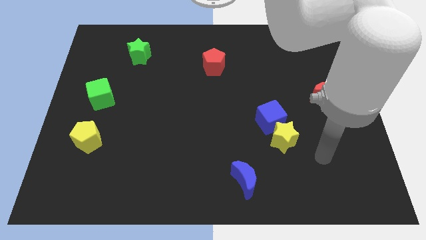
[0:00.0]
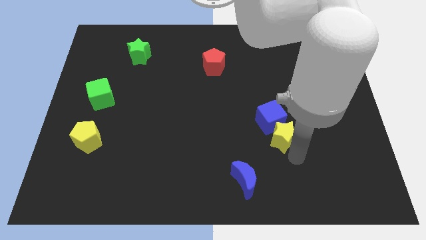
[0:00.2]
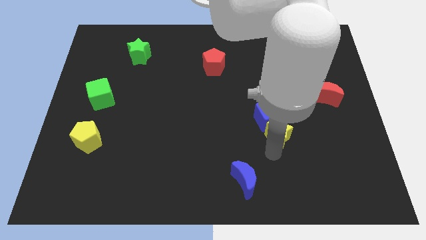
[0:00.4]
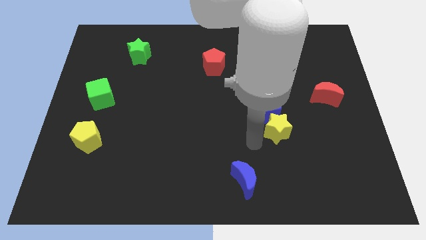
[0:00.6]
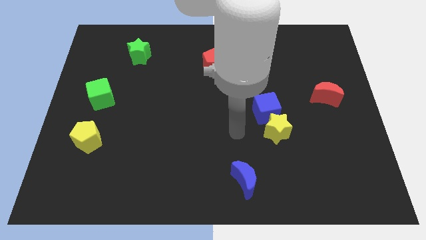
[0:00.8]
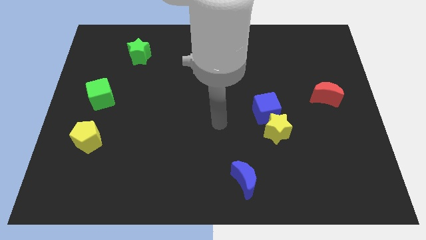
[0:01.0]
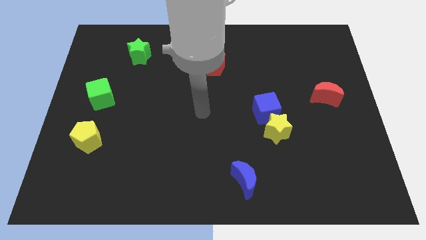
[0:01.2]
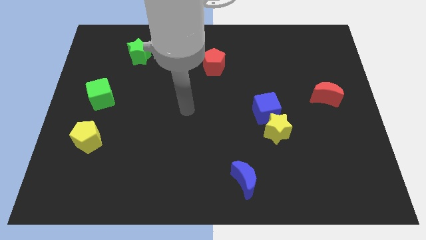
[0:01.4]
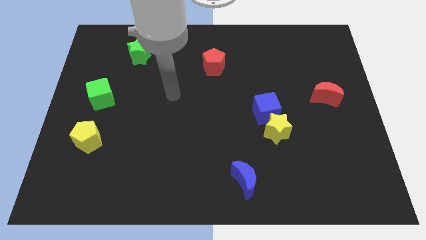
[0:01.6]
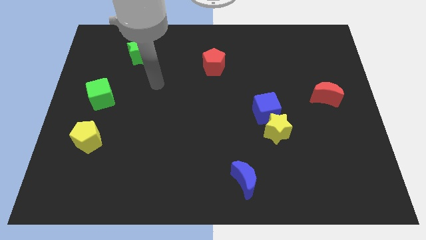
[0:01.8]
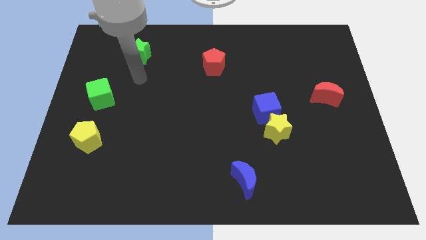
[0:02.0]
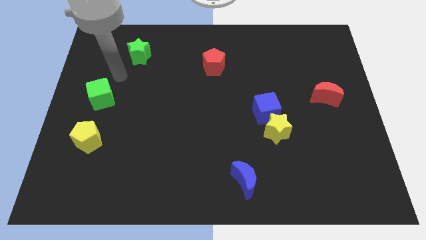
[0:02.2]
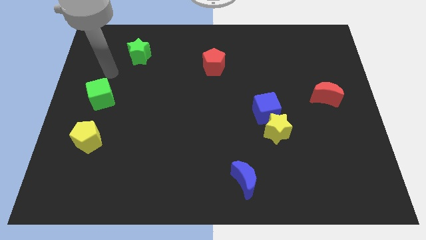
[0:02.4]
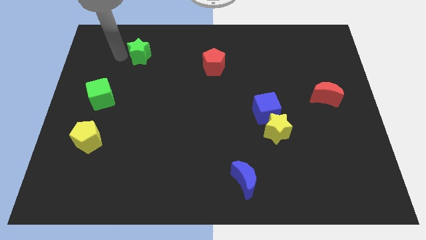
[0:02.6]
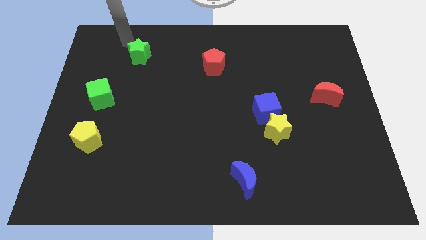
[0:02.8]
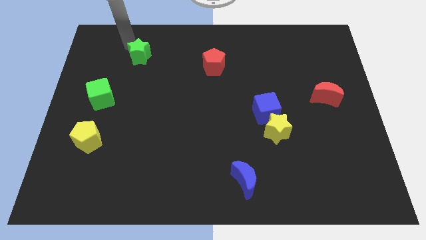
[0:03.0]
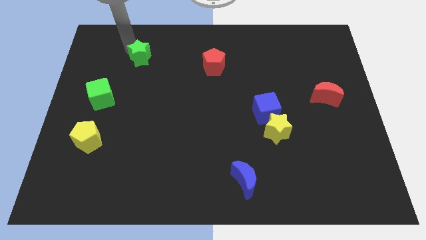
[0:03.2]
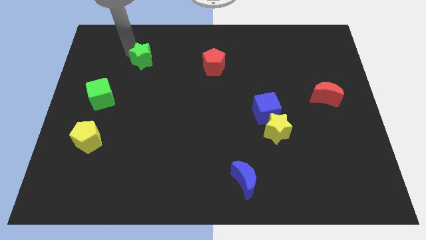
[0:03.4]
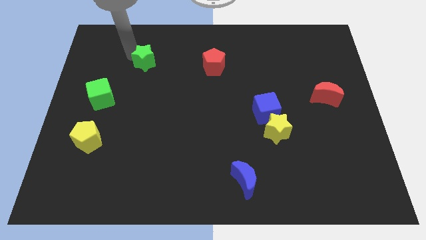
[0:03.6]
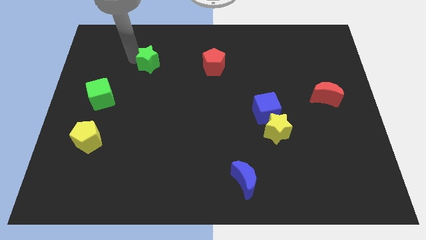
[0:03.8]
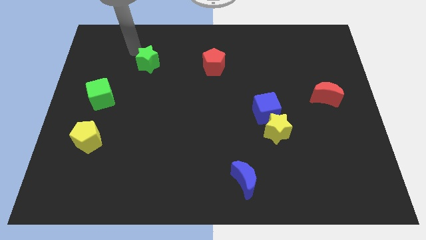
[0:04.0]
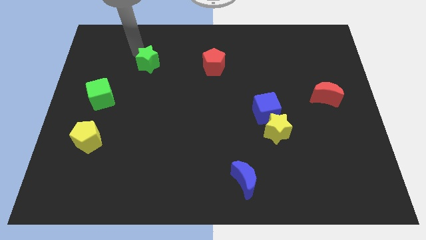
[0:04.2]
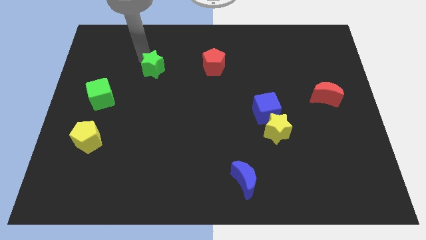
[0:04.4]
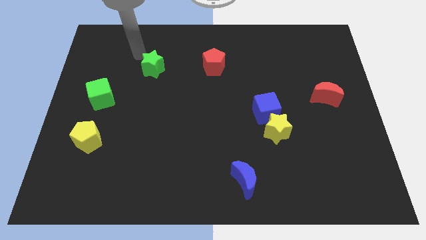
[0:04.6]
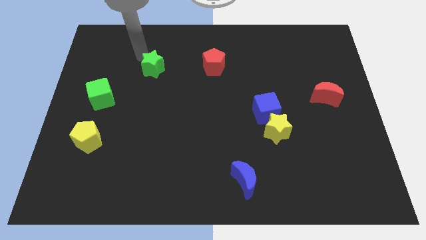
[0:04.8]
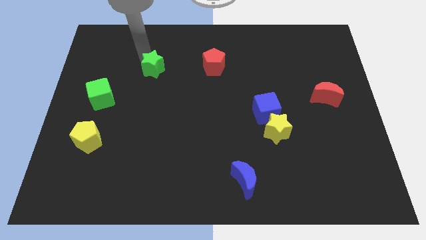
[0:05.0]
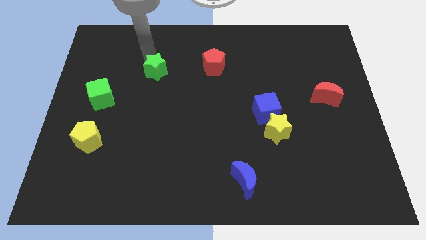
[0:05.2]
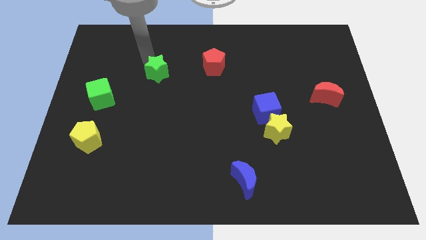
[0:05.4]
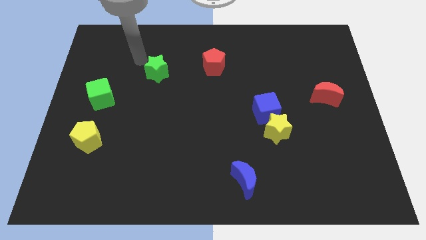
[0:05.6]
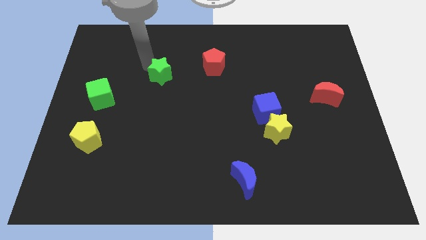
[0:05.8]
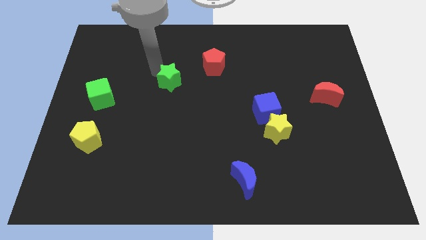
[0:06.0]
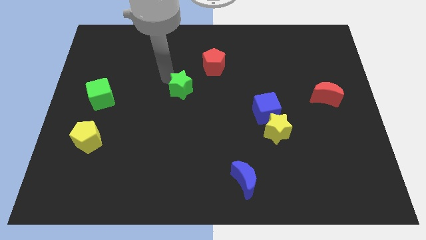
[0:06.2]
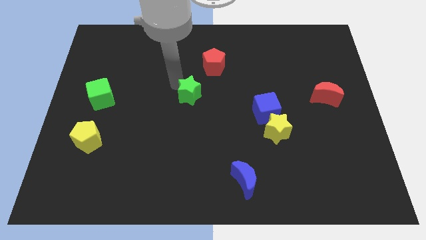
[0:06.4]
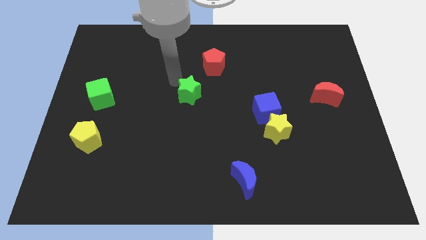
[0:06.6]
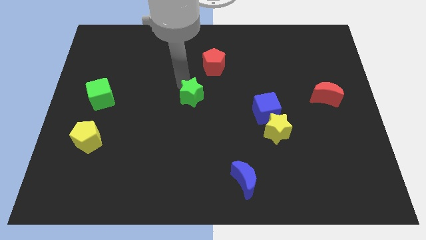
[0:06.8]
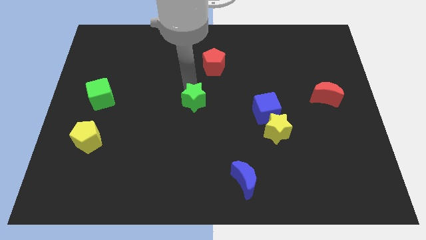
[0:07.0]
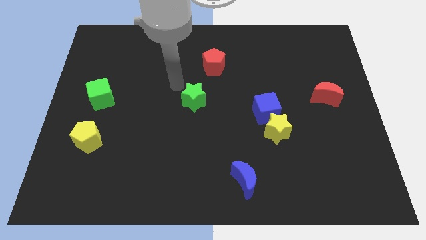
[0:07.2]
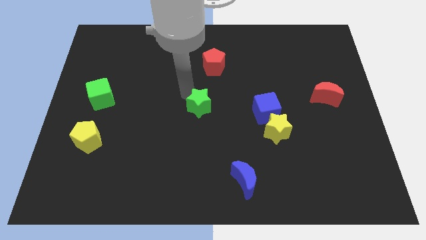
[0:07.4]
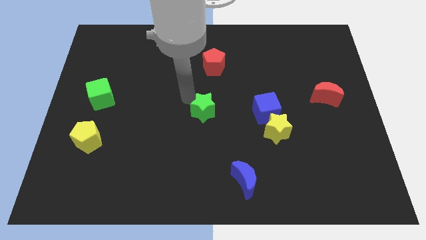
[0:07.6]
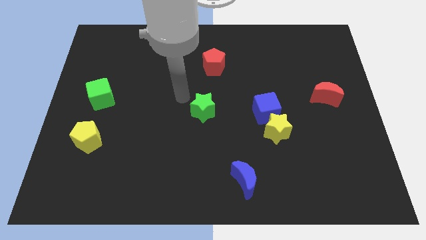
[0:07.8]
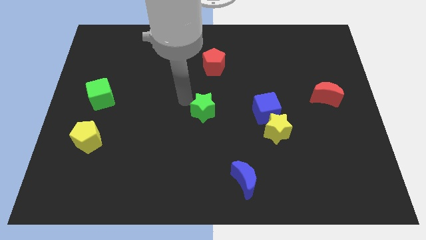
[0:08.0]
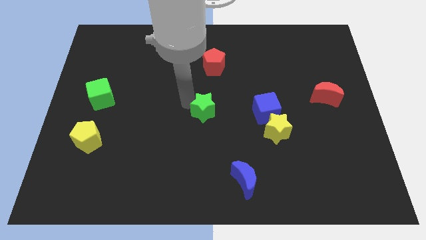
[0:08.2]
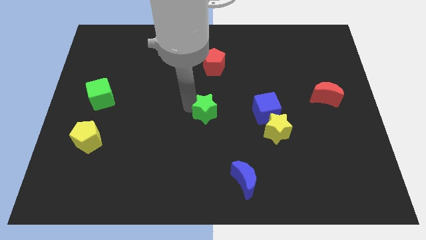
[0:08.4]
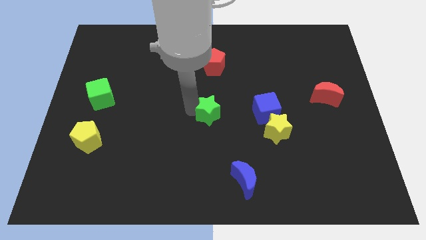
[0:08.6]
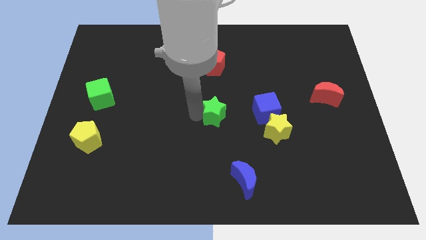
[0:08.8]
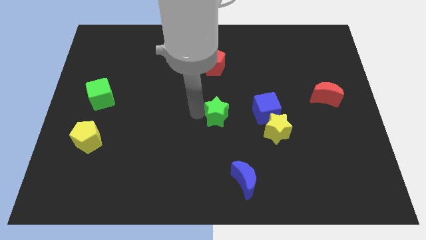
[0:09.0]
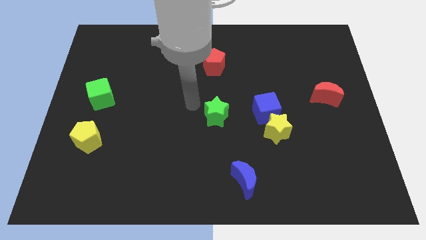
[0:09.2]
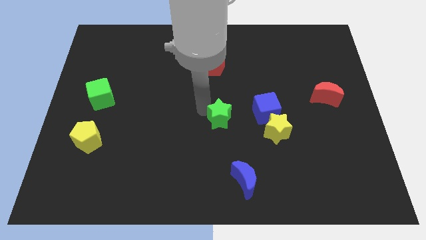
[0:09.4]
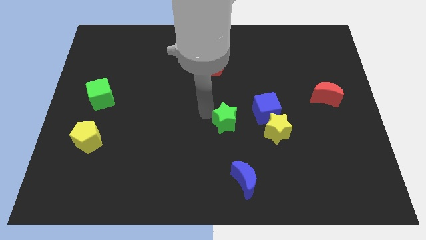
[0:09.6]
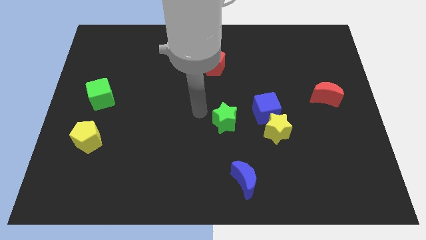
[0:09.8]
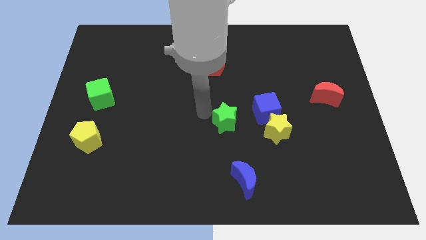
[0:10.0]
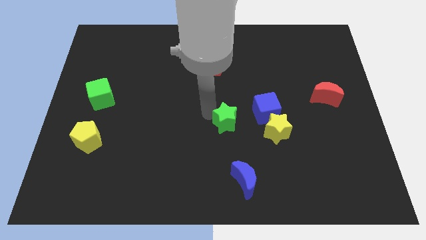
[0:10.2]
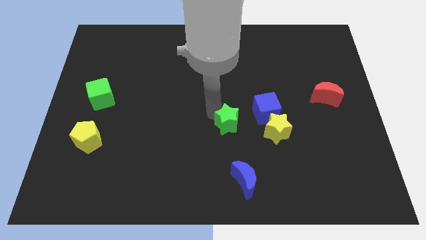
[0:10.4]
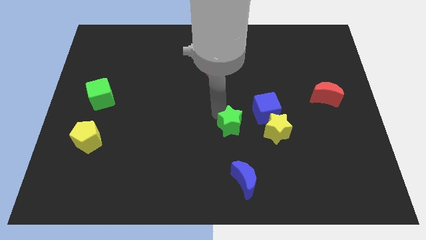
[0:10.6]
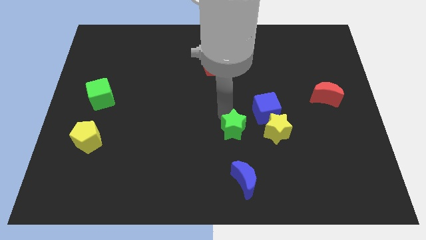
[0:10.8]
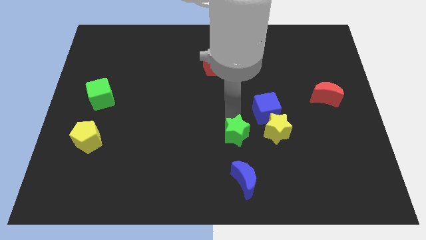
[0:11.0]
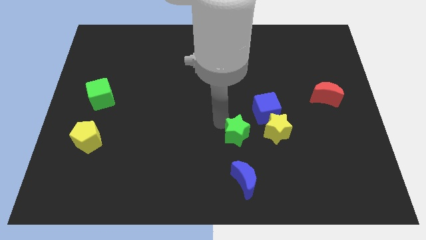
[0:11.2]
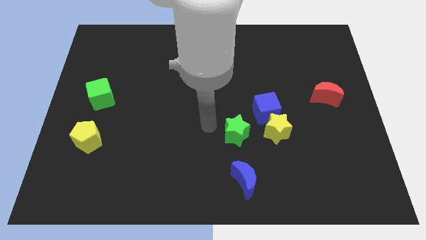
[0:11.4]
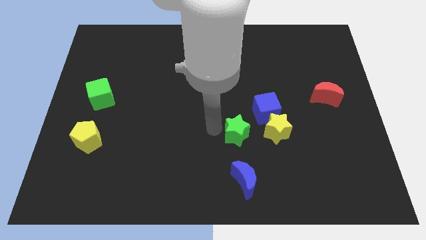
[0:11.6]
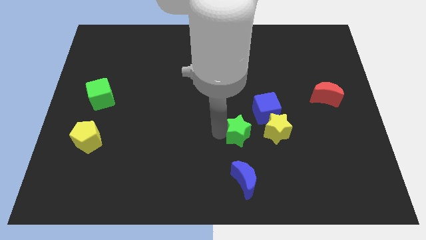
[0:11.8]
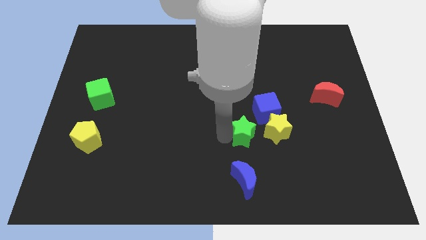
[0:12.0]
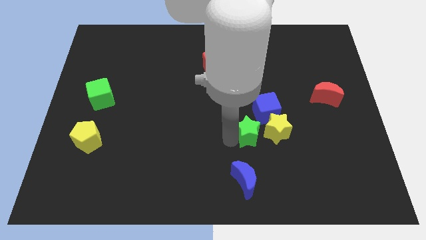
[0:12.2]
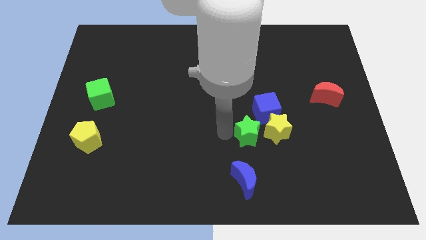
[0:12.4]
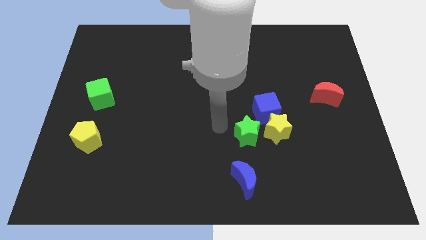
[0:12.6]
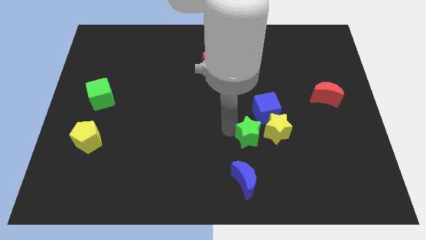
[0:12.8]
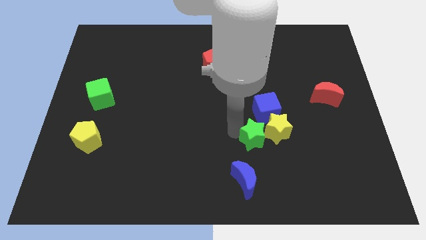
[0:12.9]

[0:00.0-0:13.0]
move the green star close to the yellow star

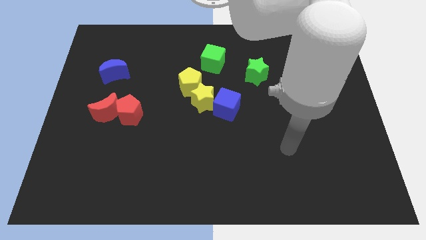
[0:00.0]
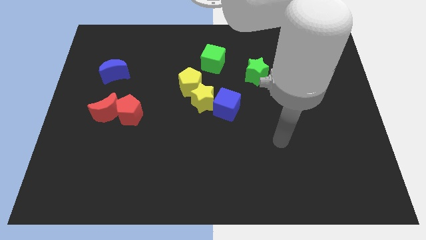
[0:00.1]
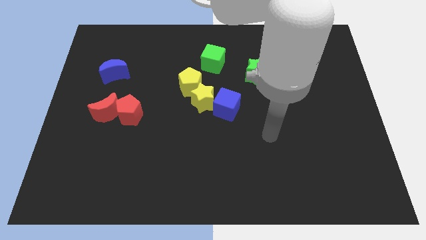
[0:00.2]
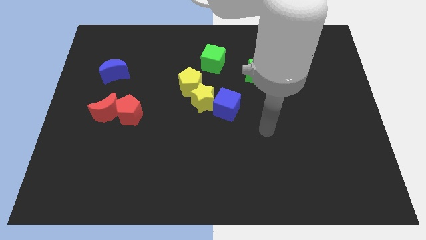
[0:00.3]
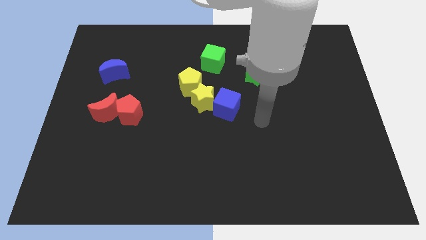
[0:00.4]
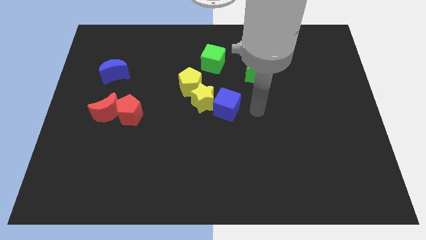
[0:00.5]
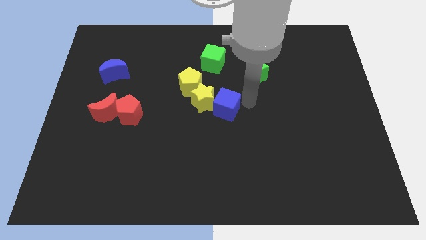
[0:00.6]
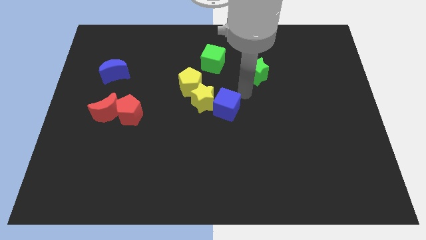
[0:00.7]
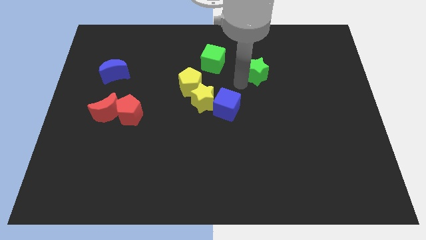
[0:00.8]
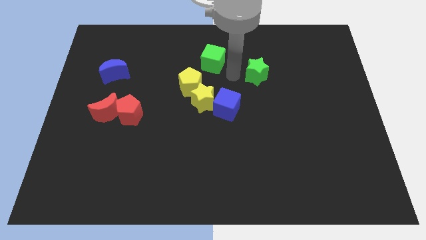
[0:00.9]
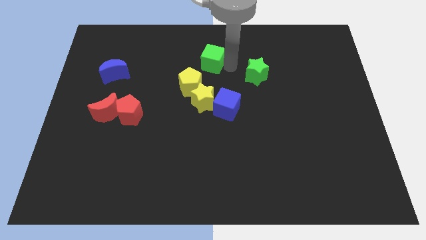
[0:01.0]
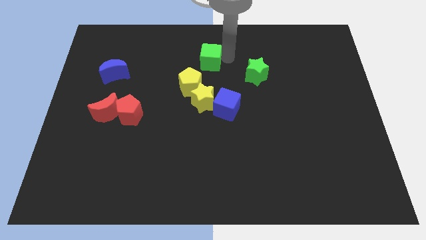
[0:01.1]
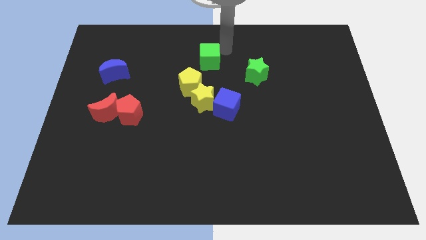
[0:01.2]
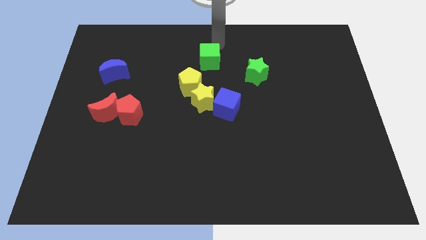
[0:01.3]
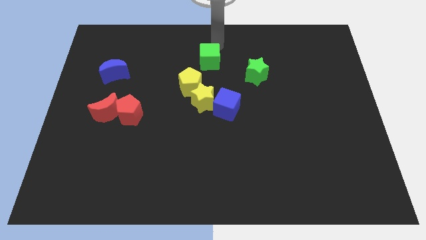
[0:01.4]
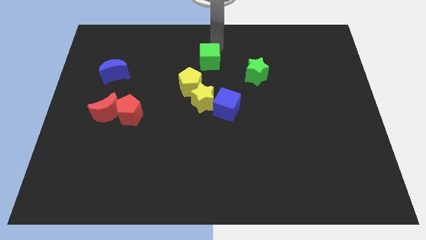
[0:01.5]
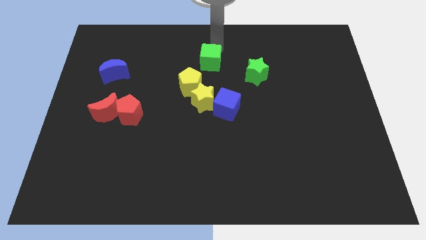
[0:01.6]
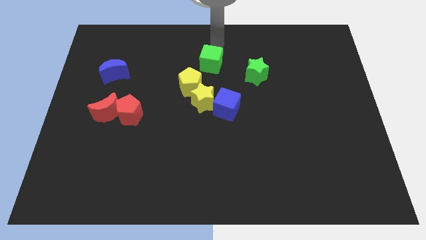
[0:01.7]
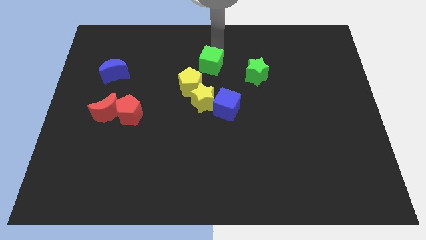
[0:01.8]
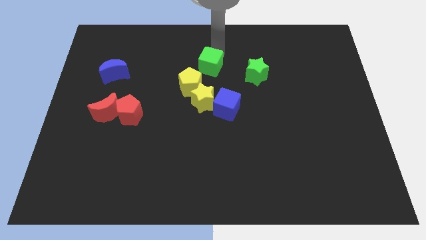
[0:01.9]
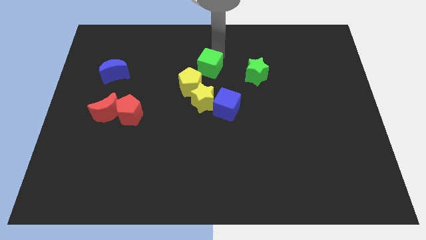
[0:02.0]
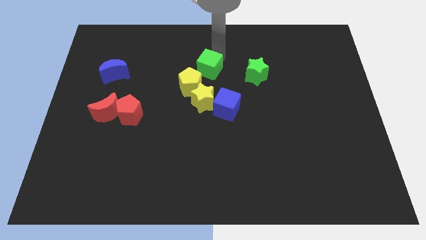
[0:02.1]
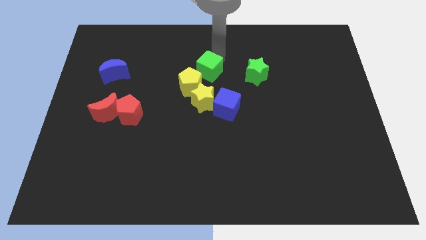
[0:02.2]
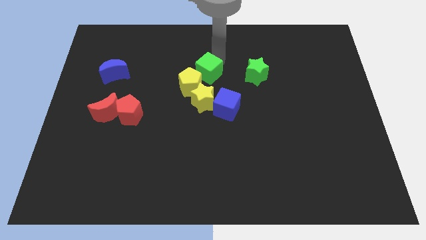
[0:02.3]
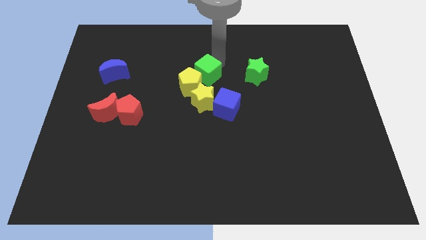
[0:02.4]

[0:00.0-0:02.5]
slide the green cube towards the yellow pentagon
